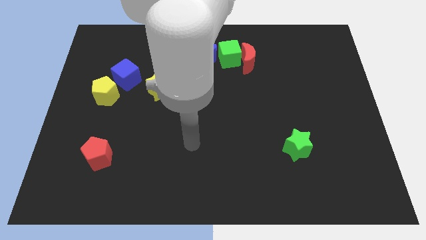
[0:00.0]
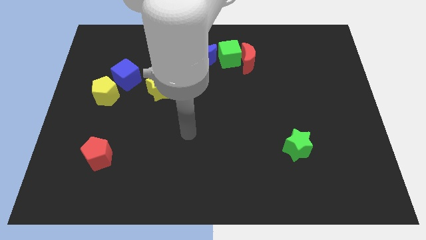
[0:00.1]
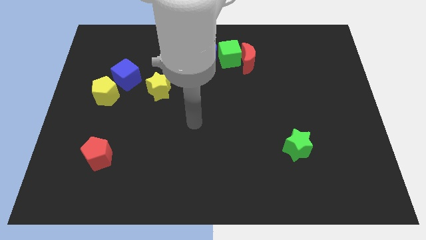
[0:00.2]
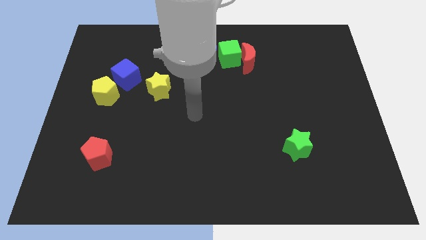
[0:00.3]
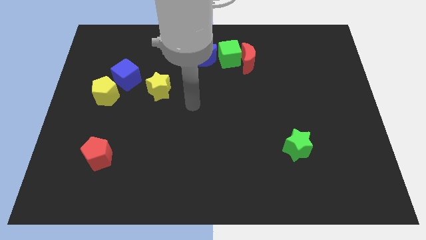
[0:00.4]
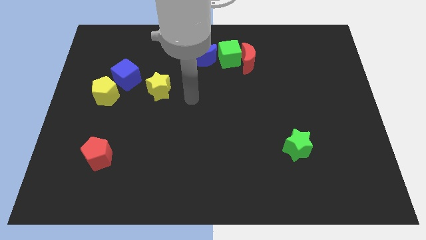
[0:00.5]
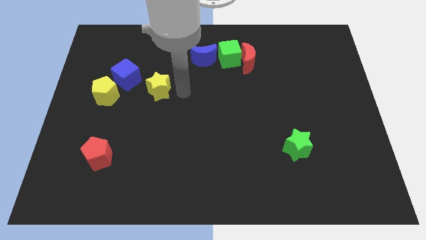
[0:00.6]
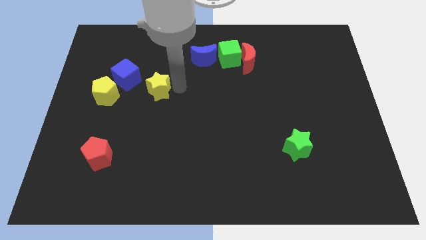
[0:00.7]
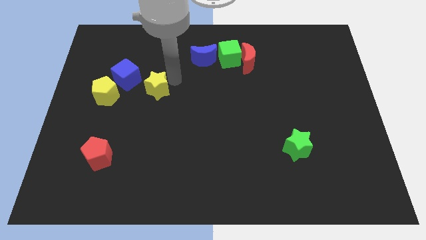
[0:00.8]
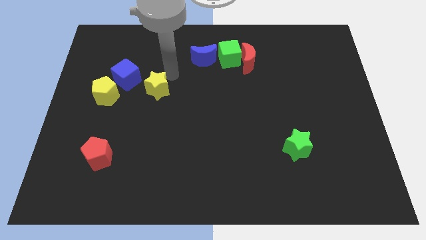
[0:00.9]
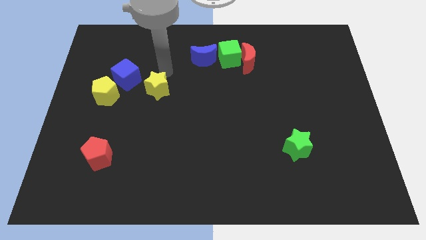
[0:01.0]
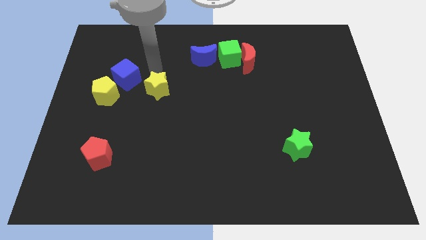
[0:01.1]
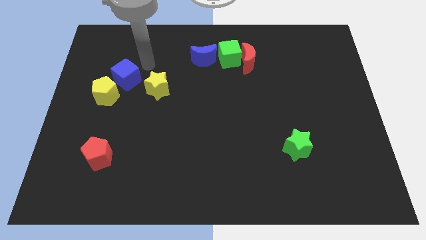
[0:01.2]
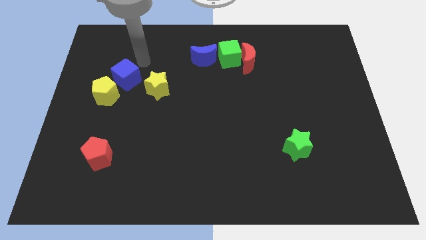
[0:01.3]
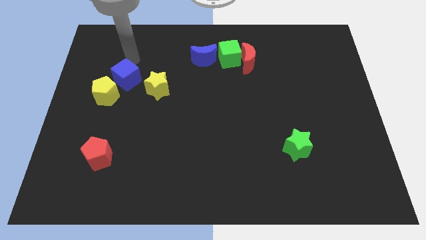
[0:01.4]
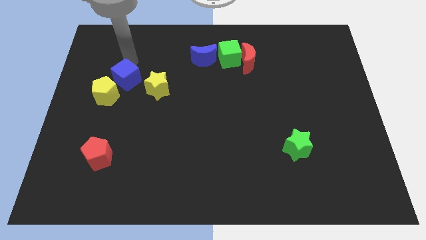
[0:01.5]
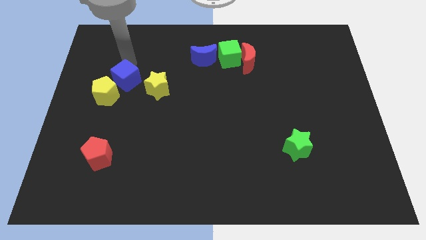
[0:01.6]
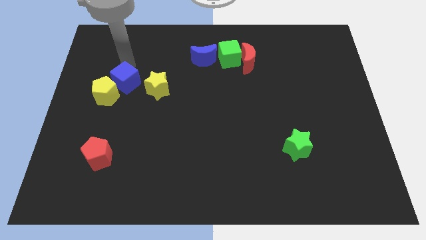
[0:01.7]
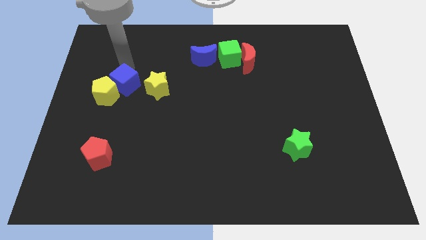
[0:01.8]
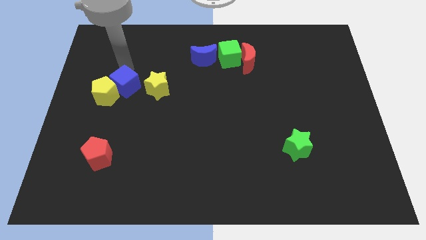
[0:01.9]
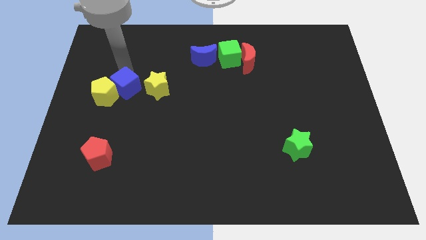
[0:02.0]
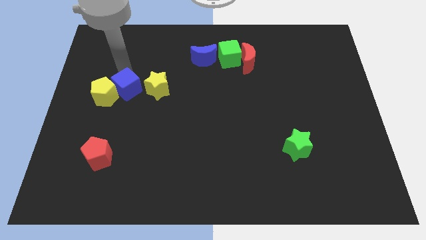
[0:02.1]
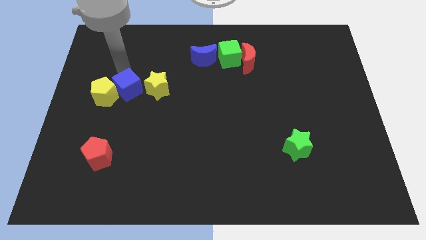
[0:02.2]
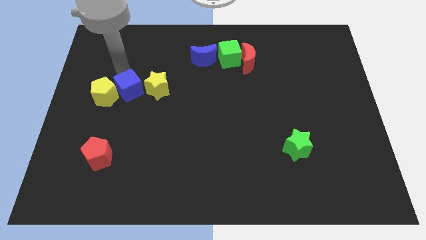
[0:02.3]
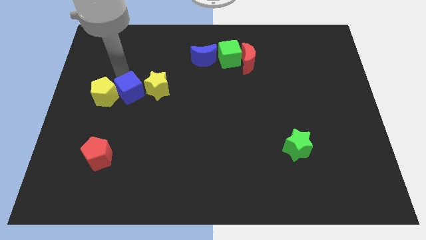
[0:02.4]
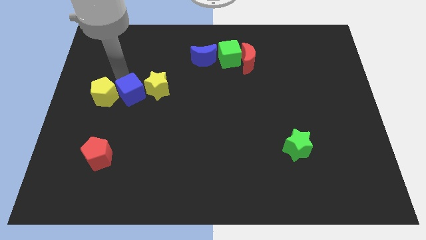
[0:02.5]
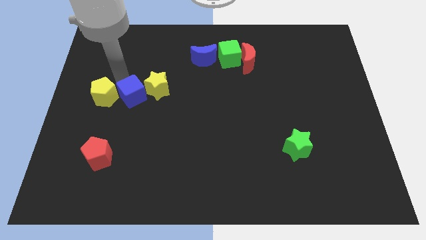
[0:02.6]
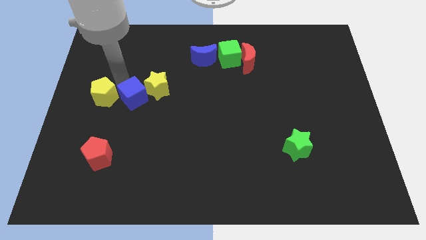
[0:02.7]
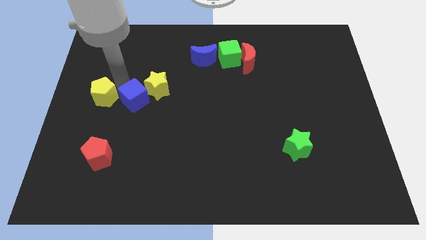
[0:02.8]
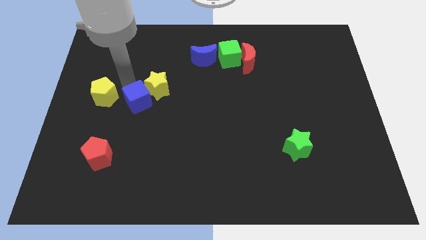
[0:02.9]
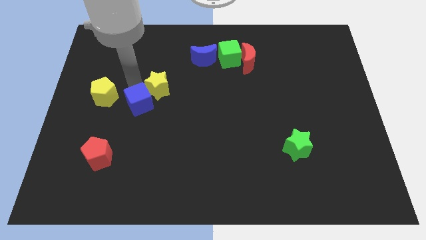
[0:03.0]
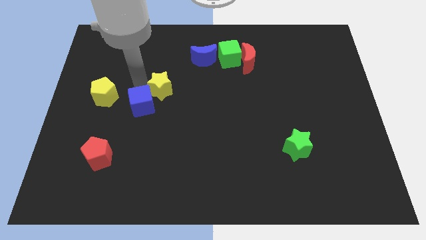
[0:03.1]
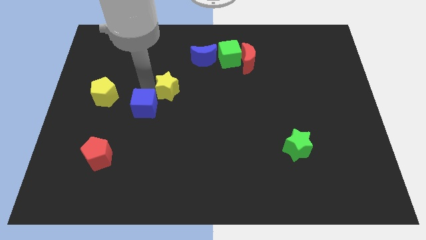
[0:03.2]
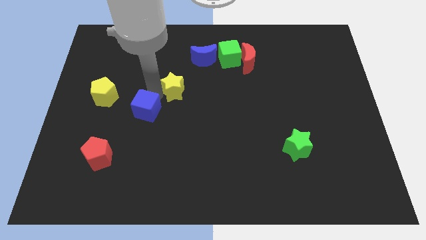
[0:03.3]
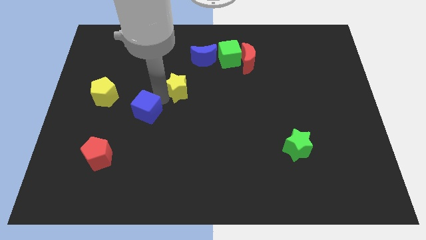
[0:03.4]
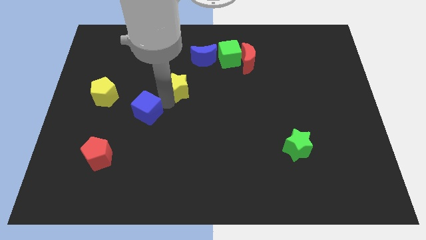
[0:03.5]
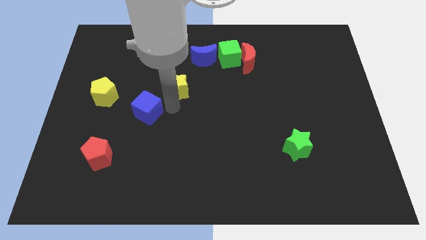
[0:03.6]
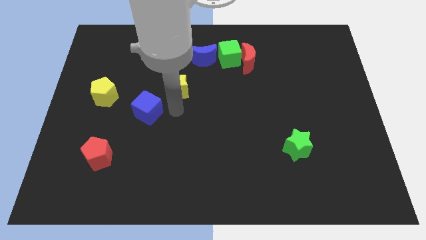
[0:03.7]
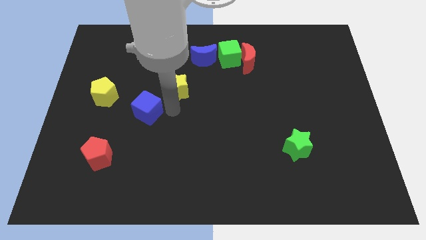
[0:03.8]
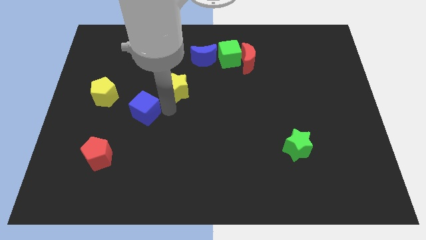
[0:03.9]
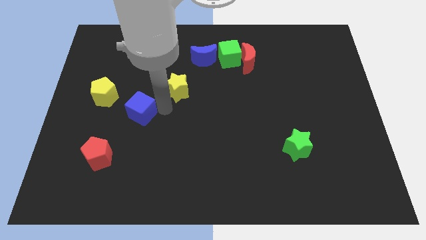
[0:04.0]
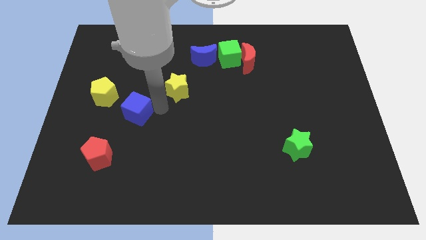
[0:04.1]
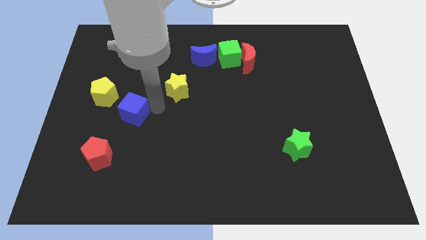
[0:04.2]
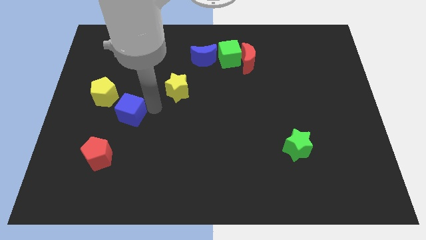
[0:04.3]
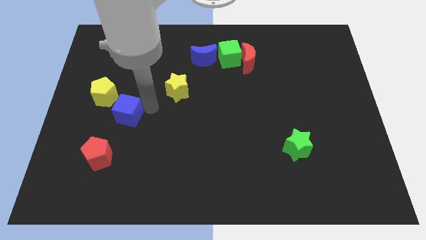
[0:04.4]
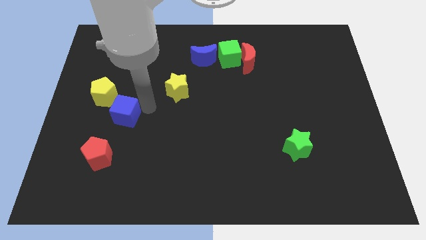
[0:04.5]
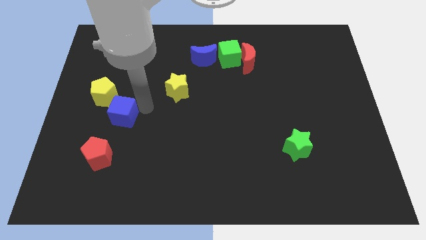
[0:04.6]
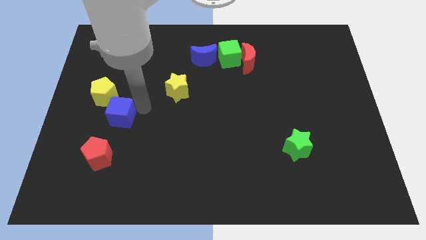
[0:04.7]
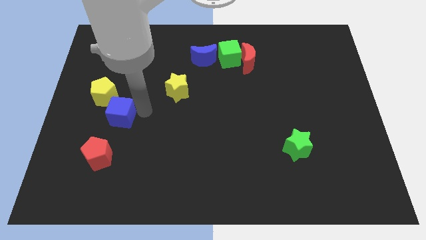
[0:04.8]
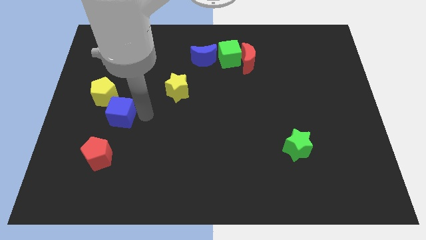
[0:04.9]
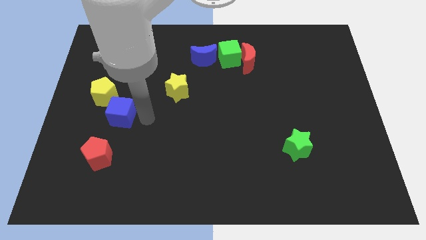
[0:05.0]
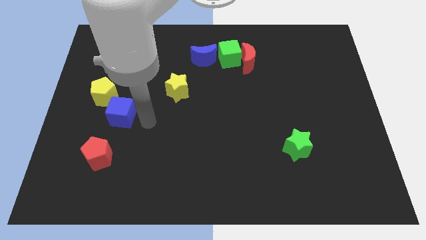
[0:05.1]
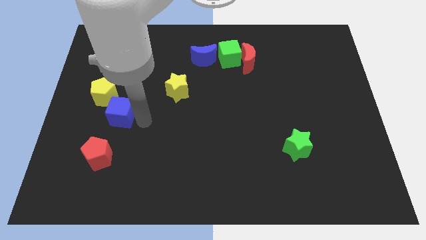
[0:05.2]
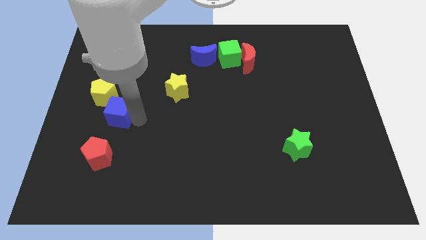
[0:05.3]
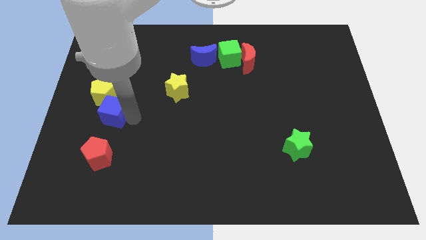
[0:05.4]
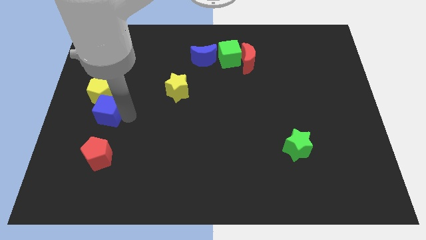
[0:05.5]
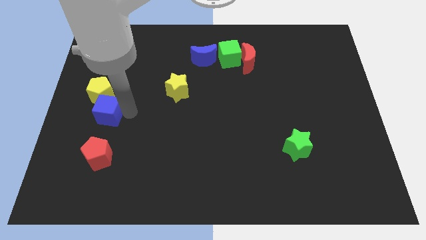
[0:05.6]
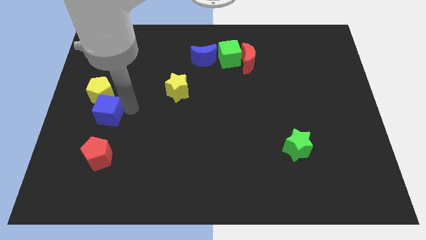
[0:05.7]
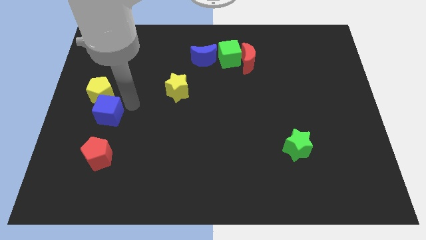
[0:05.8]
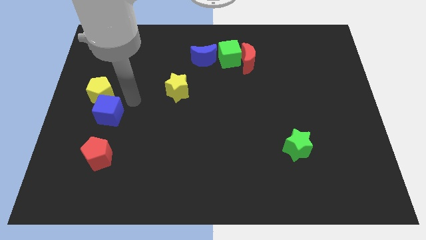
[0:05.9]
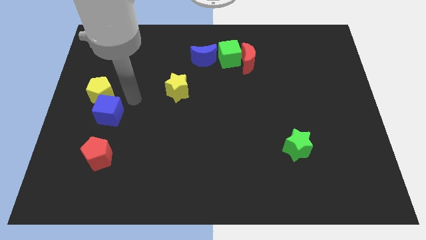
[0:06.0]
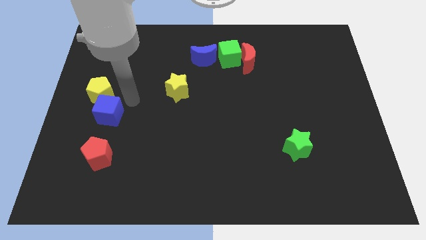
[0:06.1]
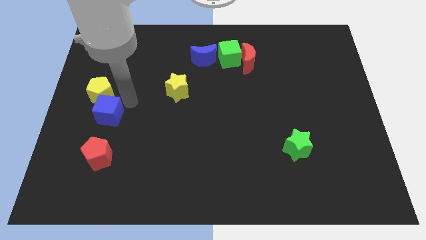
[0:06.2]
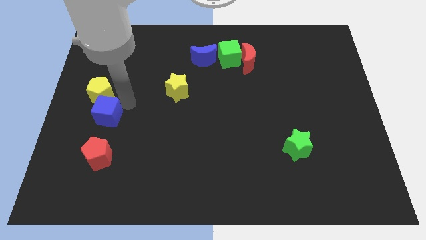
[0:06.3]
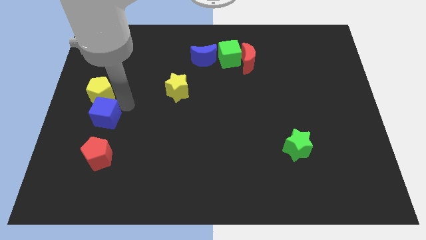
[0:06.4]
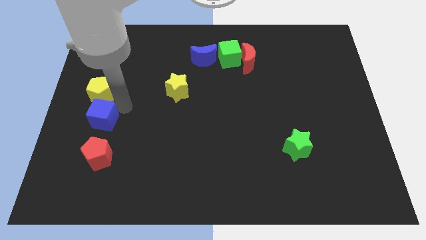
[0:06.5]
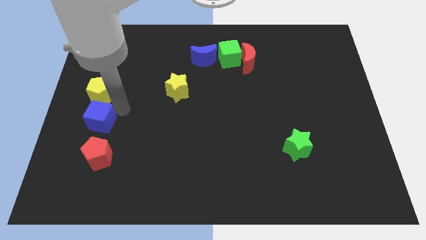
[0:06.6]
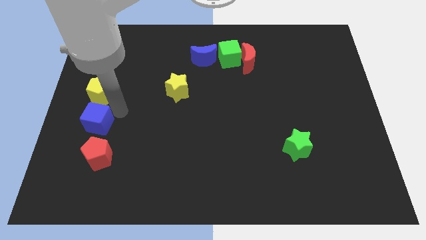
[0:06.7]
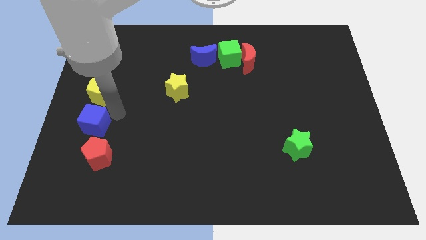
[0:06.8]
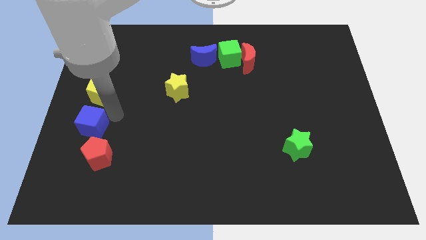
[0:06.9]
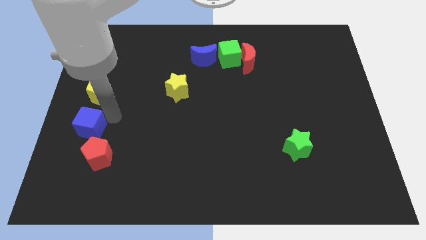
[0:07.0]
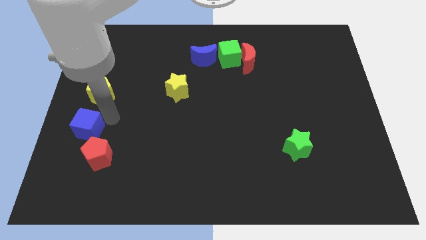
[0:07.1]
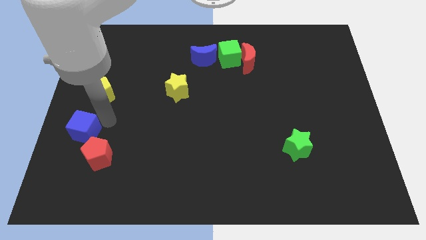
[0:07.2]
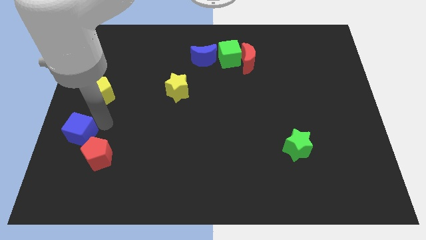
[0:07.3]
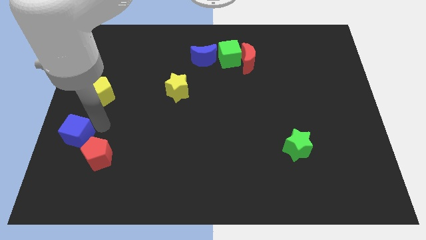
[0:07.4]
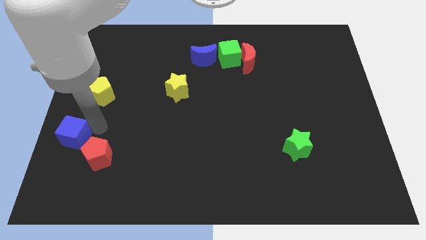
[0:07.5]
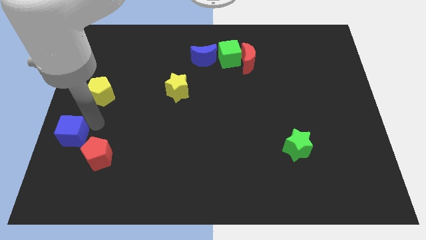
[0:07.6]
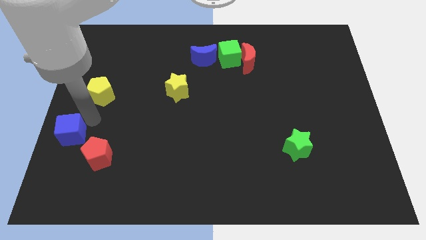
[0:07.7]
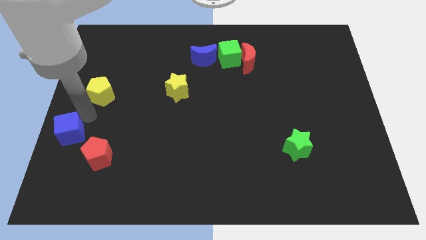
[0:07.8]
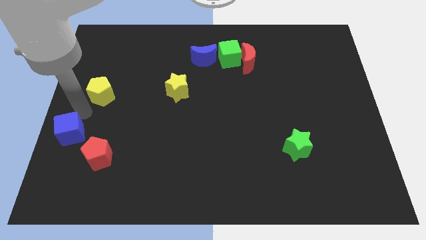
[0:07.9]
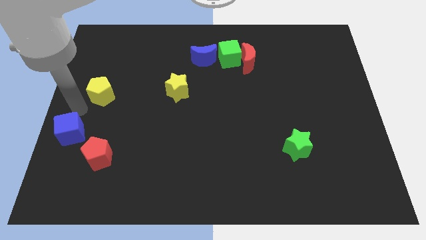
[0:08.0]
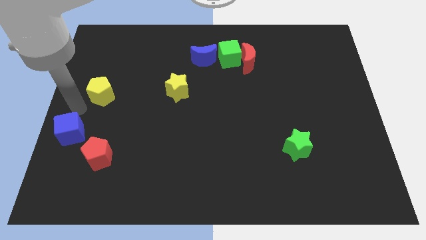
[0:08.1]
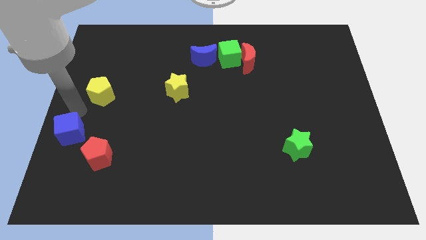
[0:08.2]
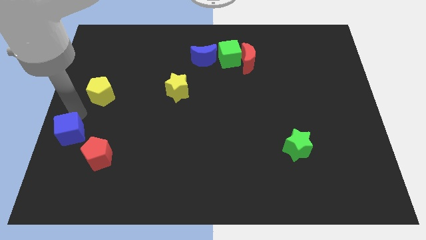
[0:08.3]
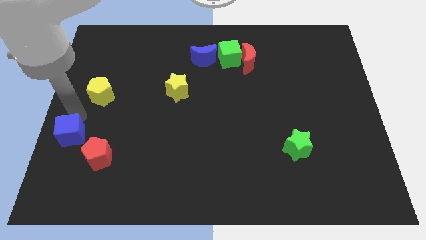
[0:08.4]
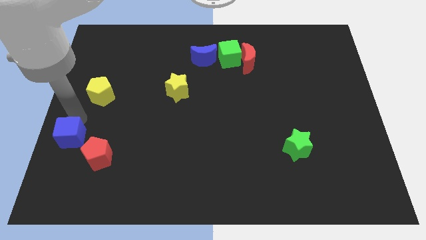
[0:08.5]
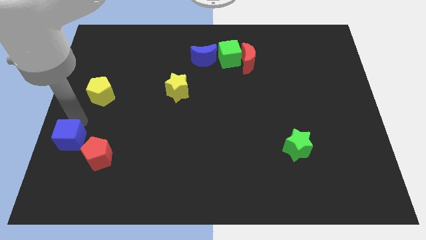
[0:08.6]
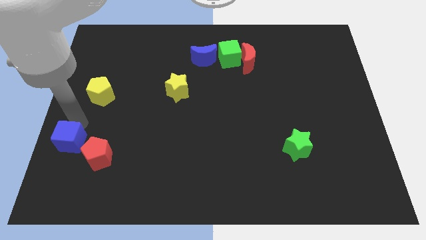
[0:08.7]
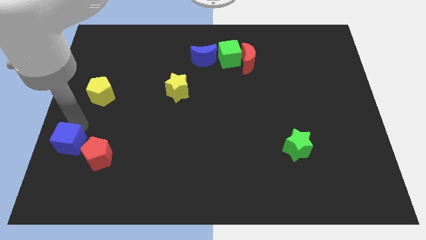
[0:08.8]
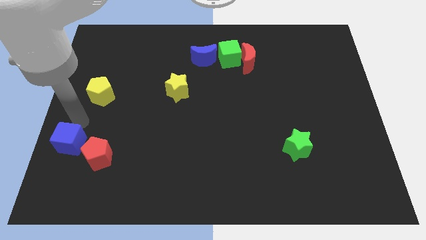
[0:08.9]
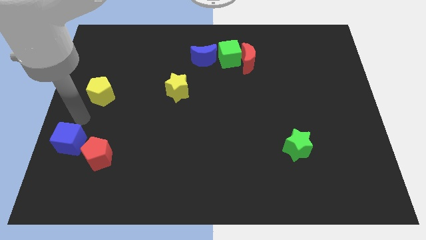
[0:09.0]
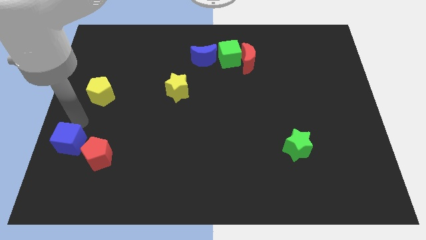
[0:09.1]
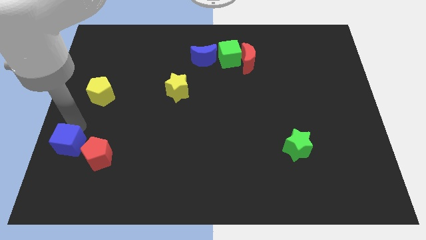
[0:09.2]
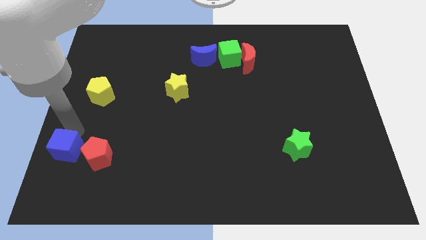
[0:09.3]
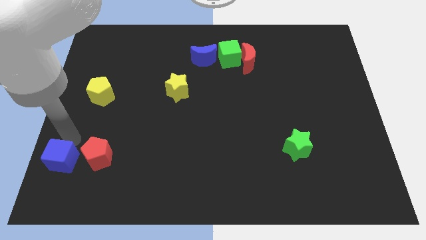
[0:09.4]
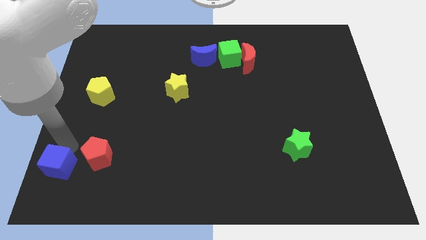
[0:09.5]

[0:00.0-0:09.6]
slide the blue cube to the bottom left corner
